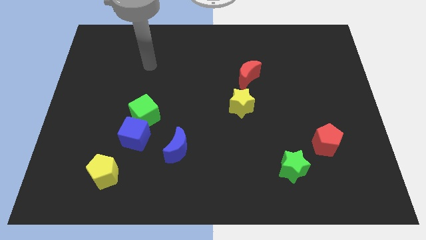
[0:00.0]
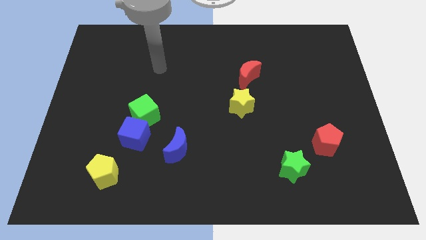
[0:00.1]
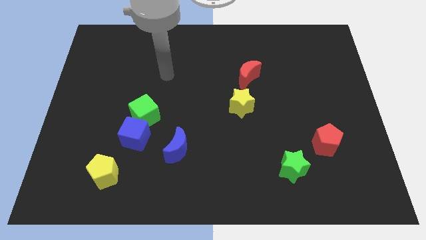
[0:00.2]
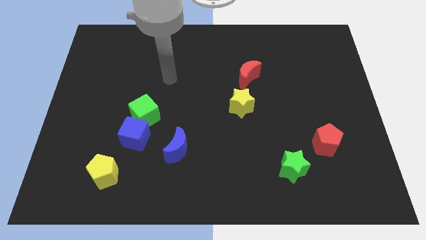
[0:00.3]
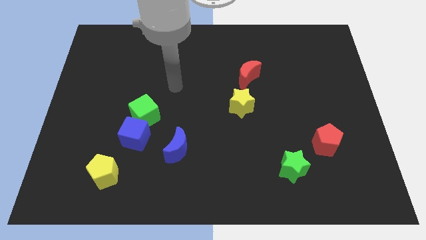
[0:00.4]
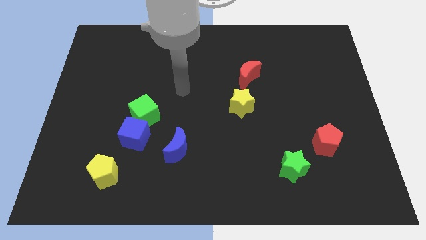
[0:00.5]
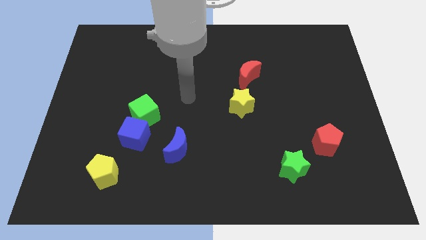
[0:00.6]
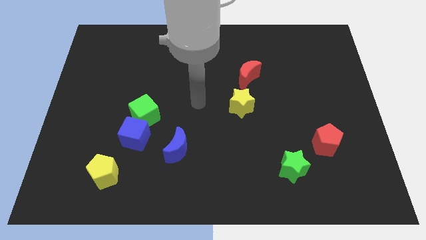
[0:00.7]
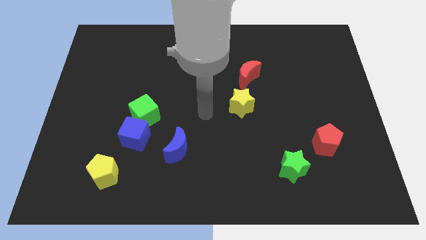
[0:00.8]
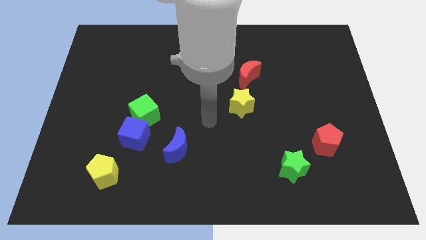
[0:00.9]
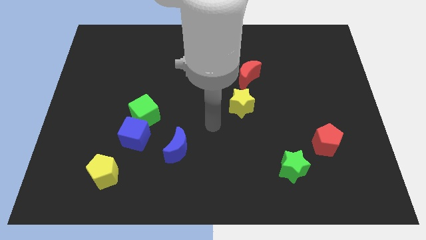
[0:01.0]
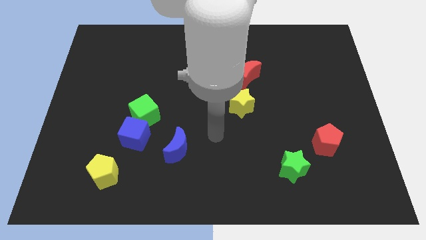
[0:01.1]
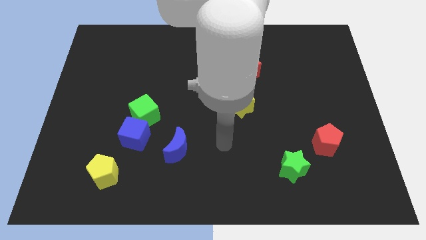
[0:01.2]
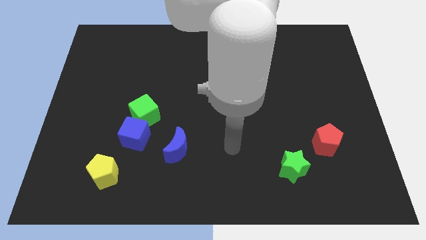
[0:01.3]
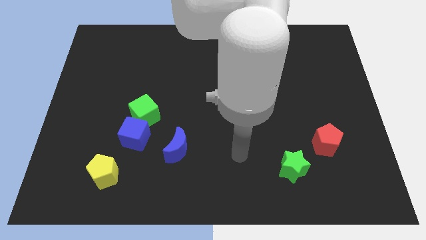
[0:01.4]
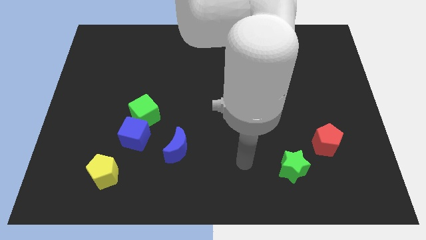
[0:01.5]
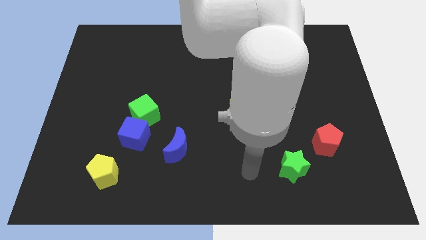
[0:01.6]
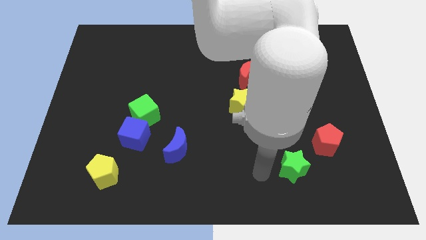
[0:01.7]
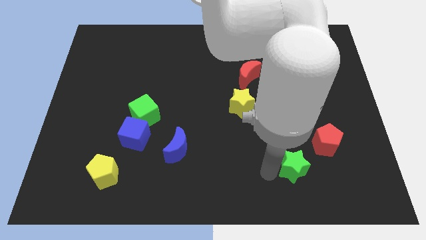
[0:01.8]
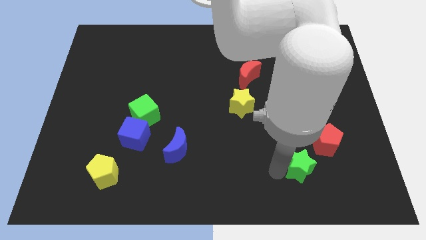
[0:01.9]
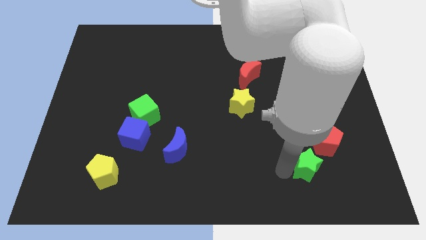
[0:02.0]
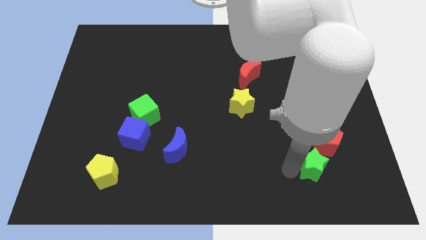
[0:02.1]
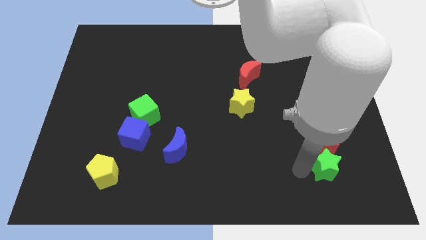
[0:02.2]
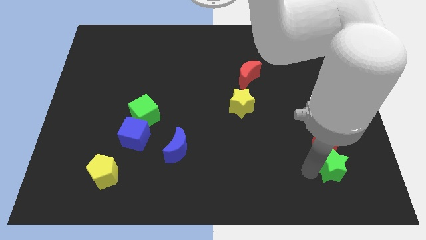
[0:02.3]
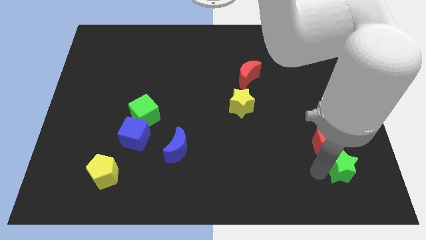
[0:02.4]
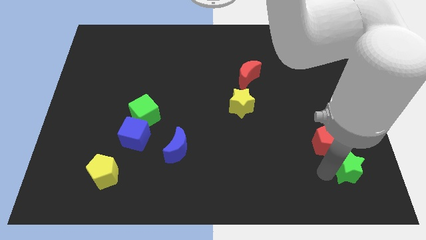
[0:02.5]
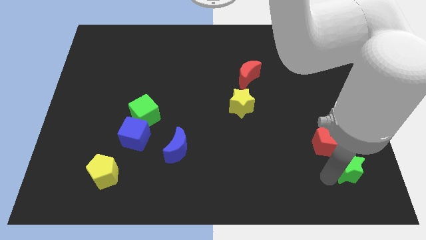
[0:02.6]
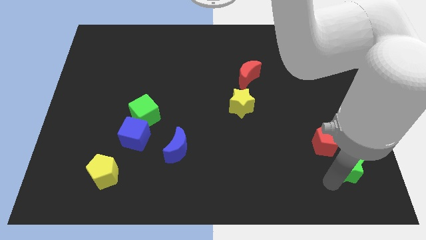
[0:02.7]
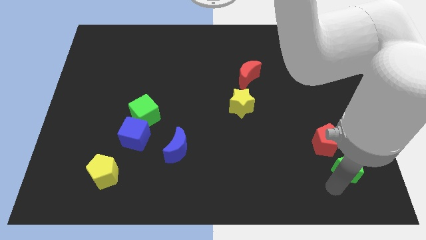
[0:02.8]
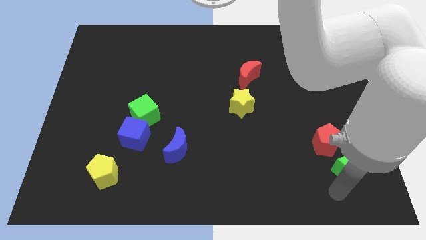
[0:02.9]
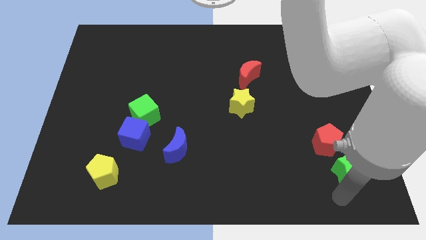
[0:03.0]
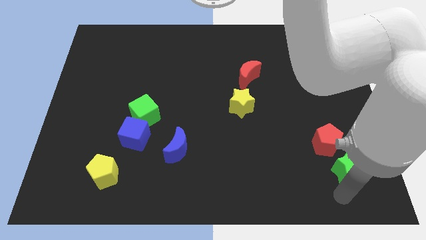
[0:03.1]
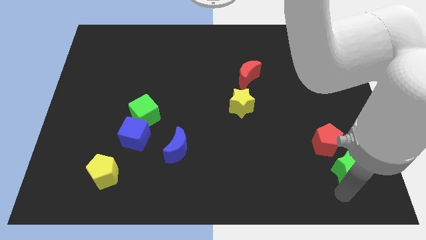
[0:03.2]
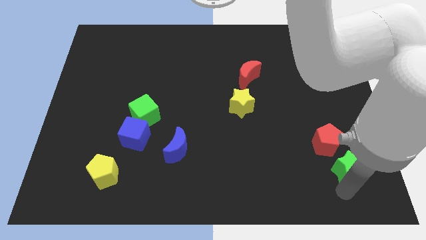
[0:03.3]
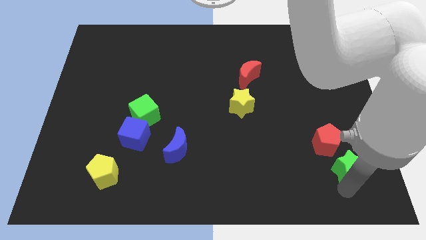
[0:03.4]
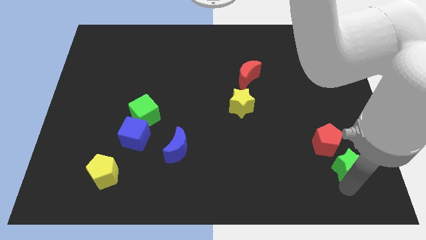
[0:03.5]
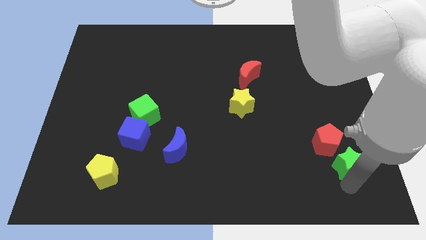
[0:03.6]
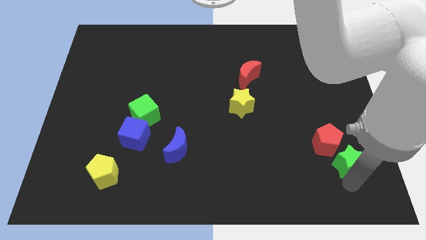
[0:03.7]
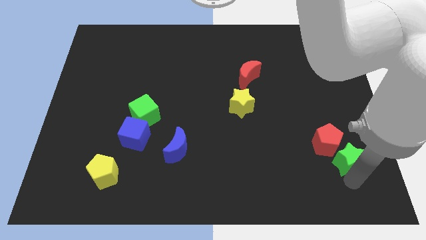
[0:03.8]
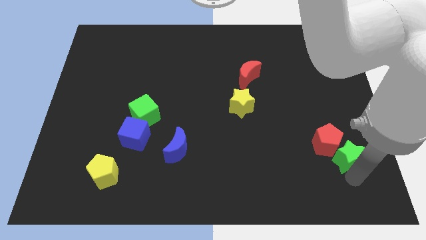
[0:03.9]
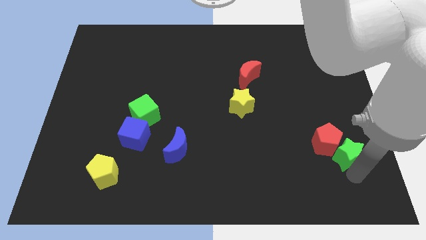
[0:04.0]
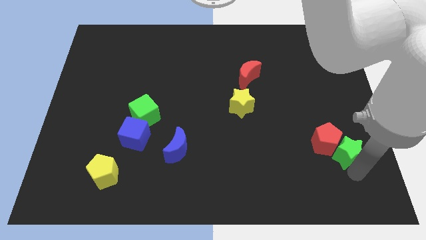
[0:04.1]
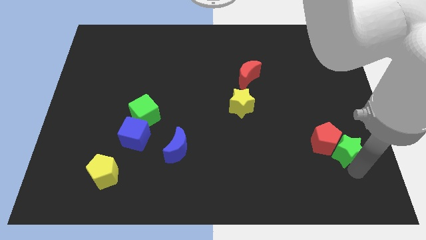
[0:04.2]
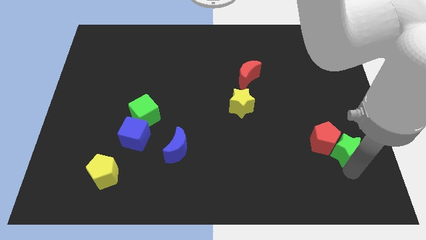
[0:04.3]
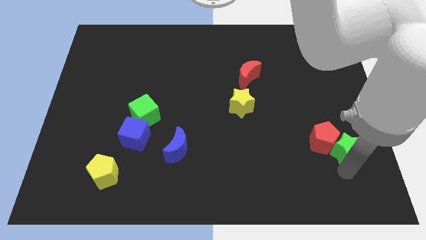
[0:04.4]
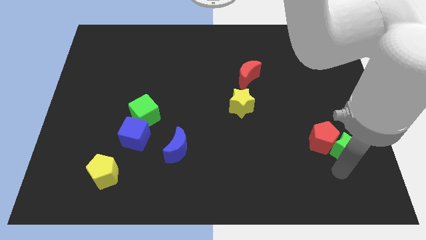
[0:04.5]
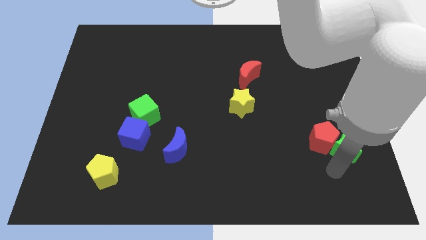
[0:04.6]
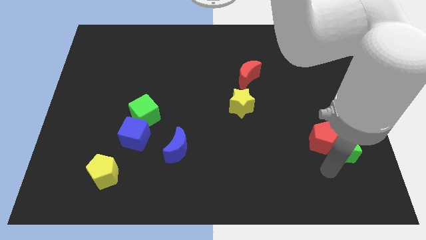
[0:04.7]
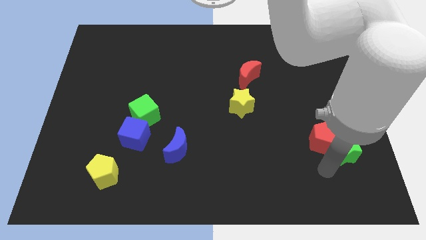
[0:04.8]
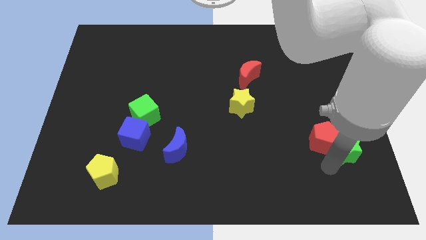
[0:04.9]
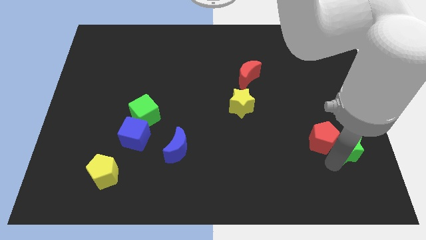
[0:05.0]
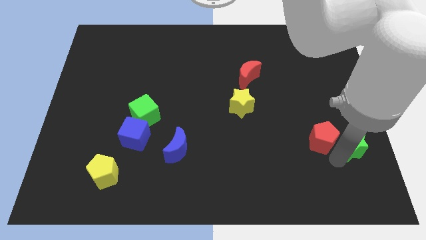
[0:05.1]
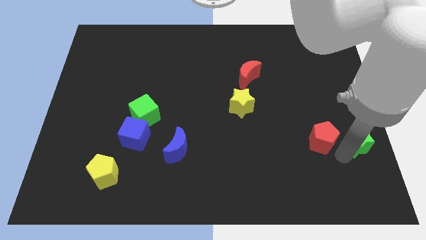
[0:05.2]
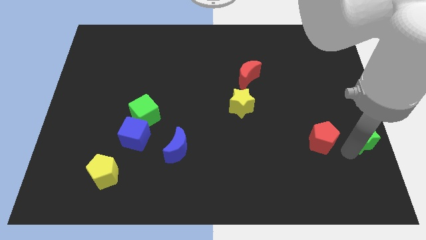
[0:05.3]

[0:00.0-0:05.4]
slide the green star to the right side of the board
